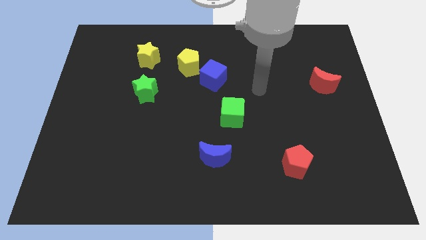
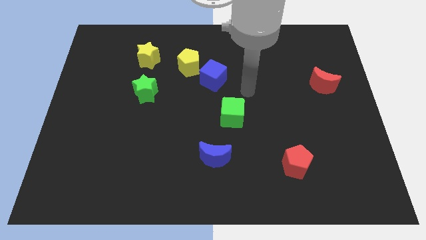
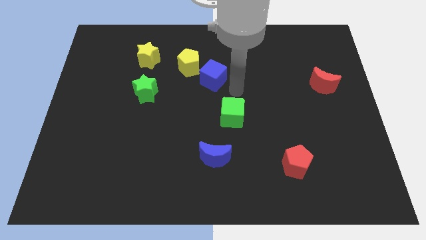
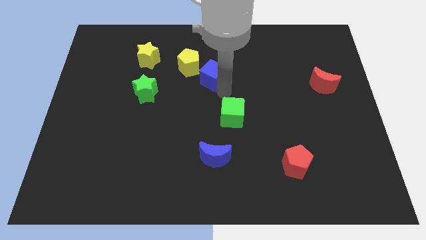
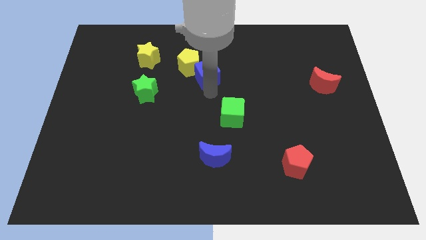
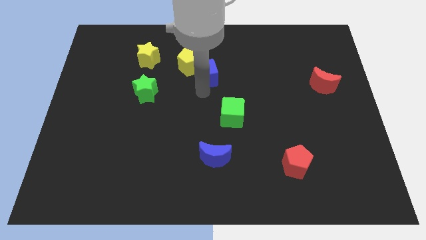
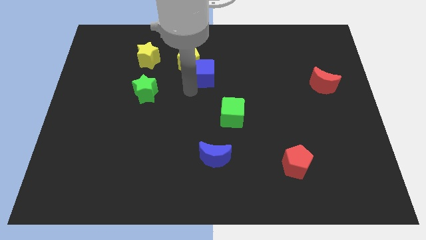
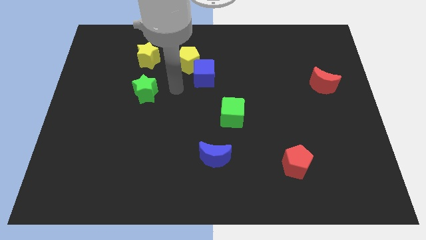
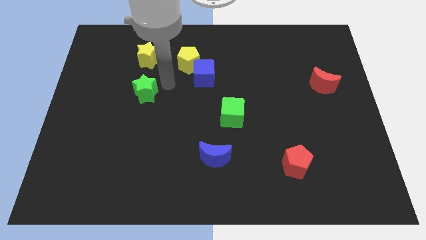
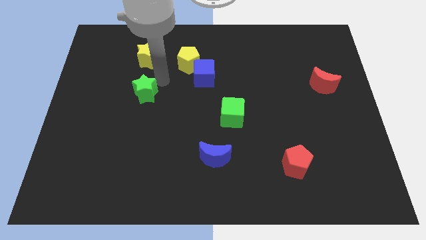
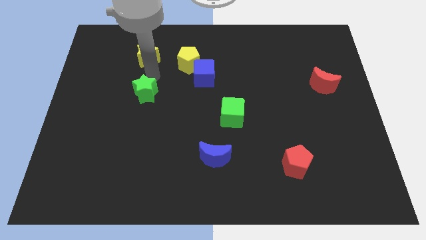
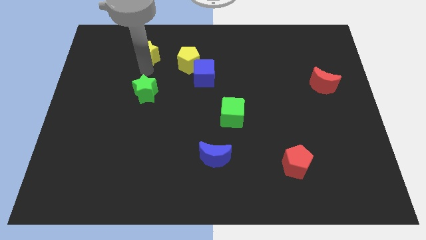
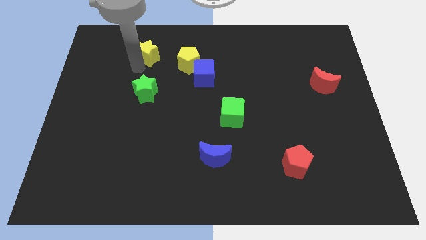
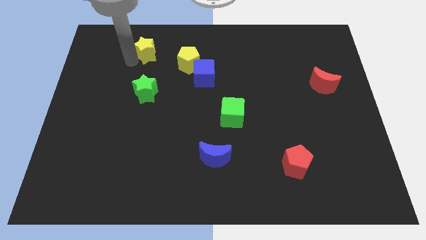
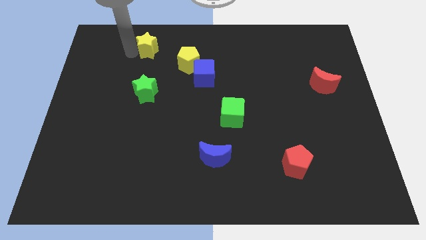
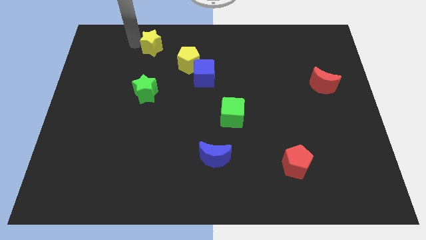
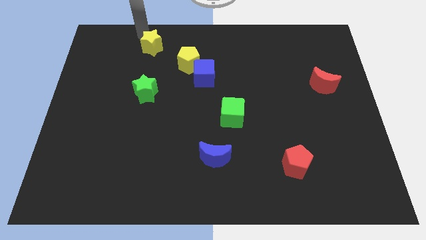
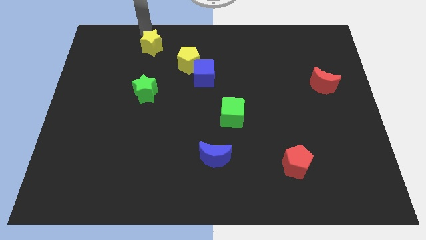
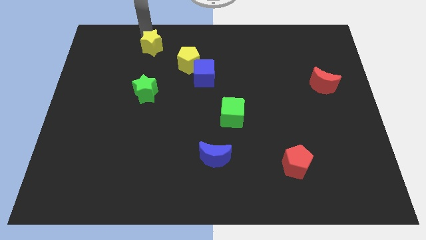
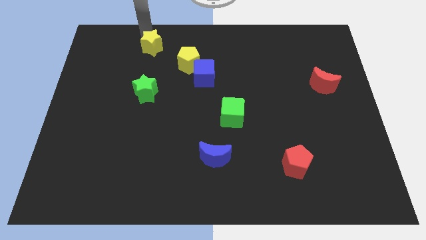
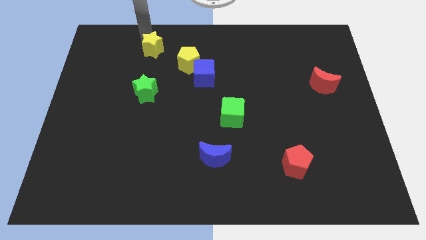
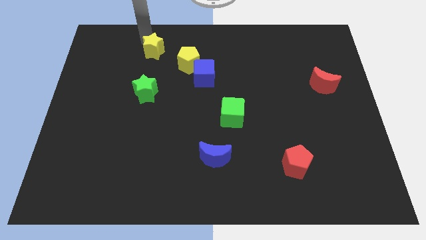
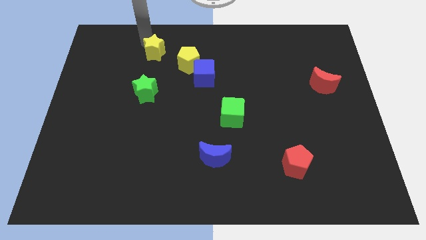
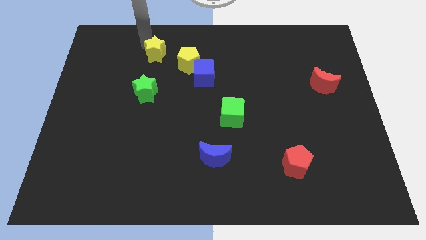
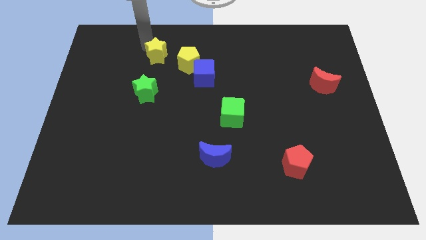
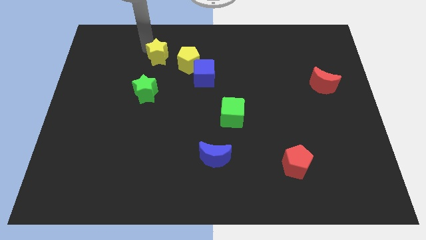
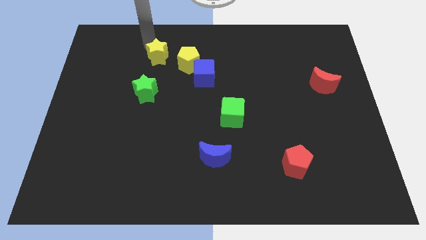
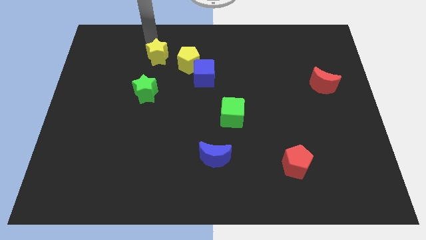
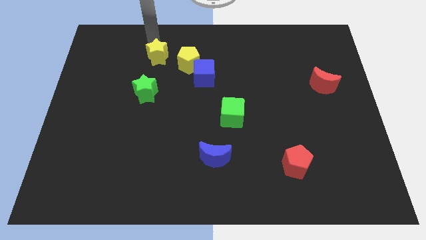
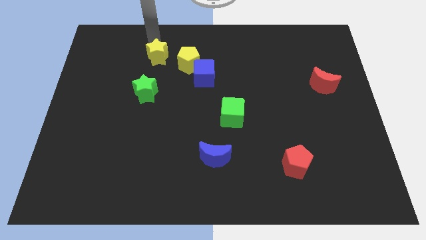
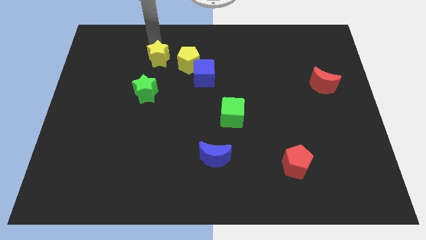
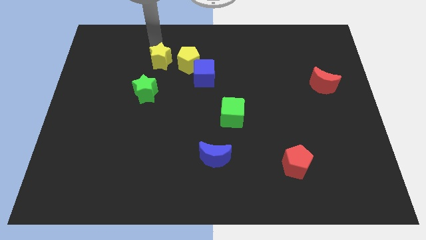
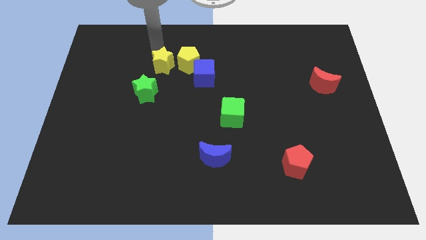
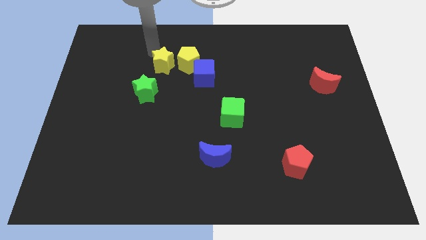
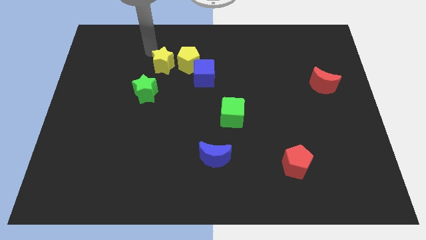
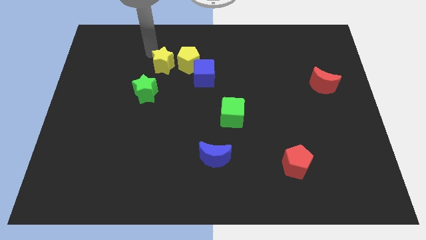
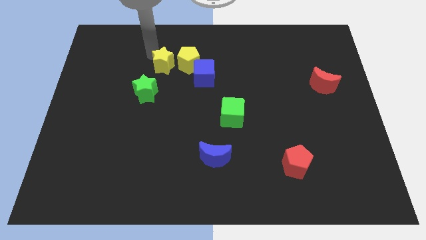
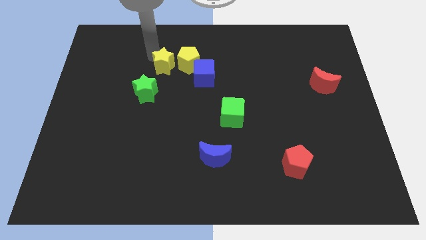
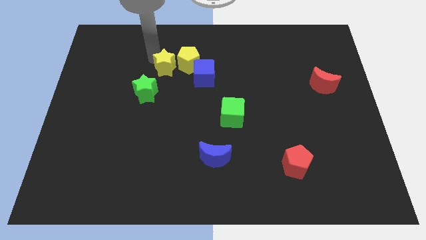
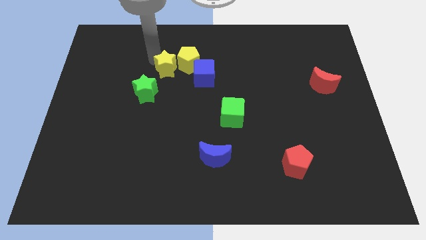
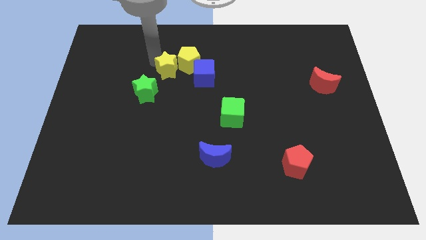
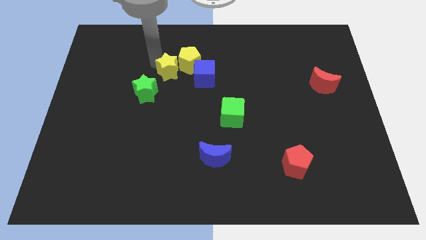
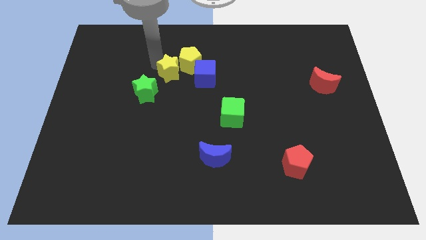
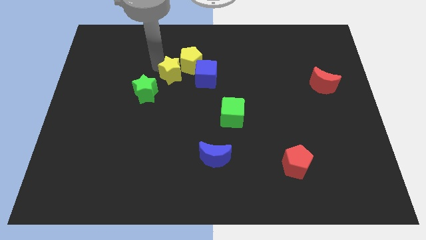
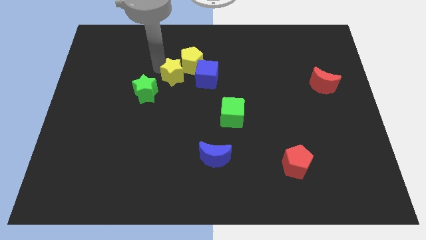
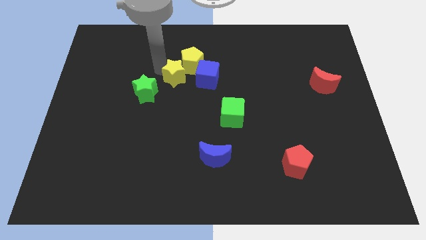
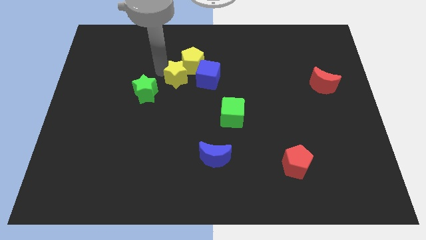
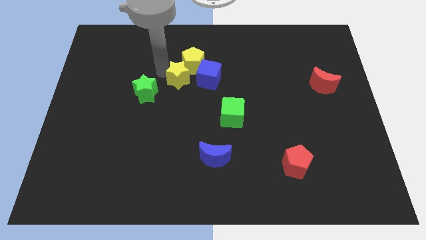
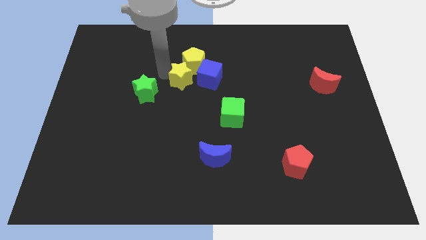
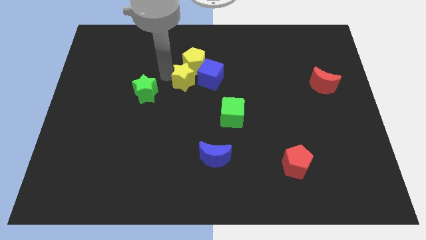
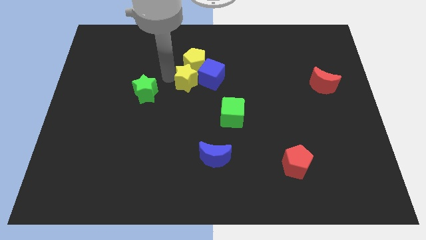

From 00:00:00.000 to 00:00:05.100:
push the yellow star towards the blue cube

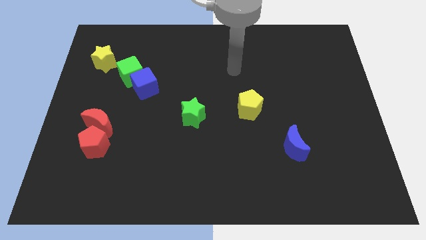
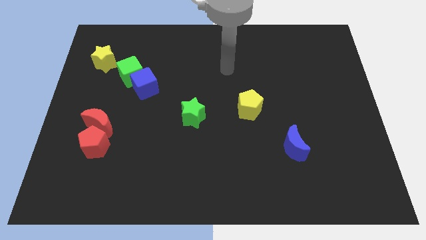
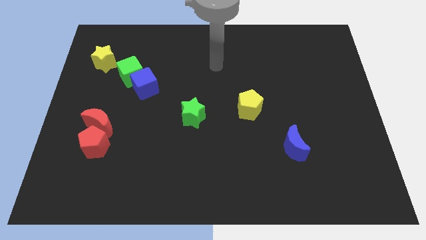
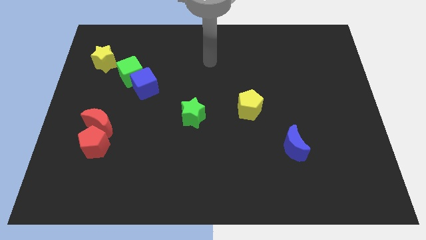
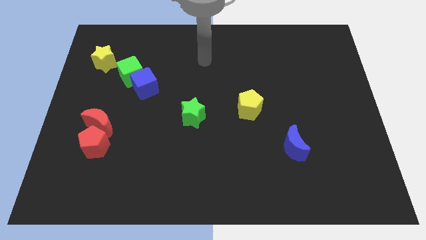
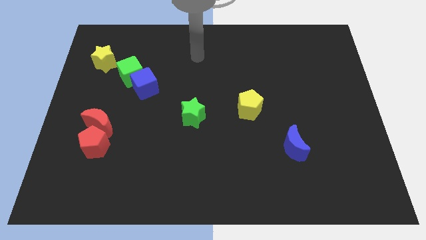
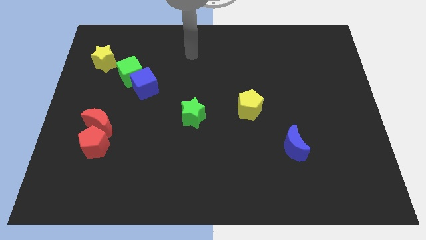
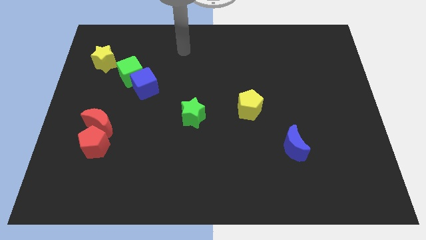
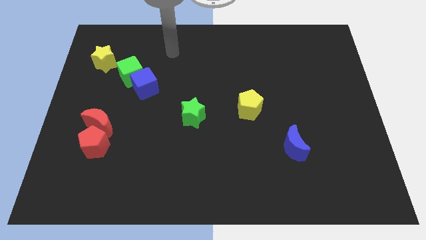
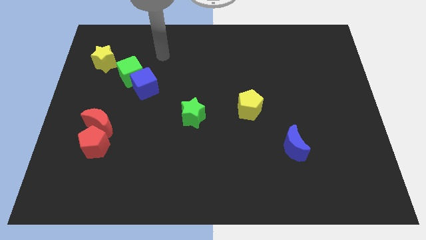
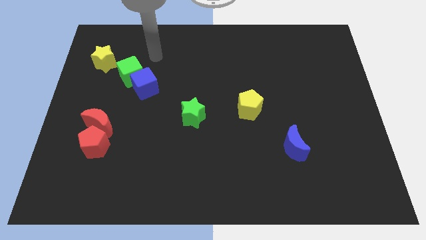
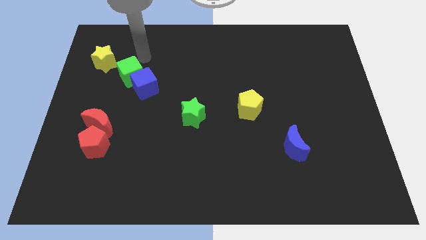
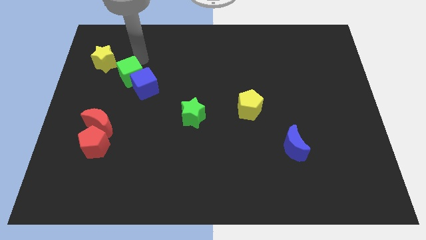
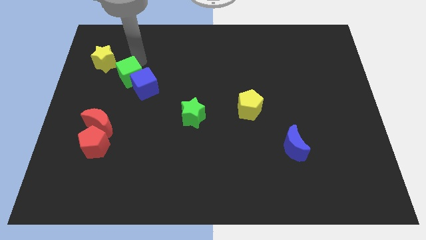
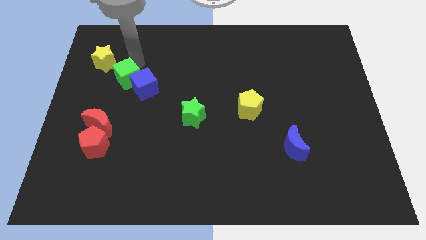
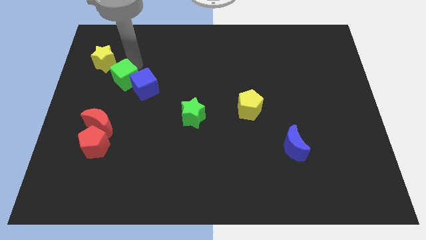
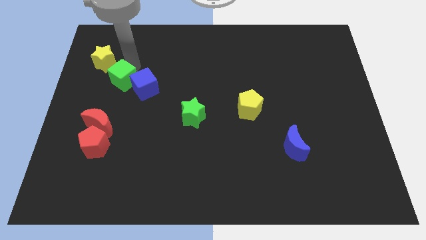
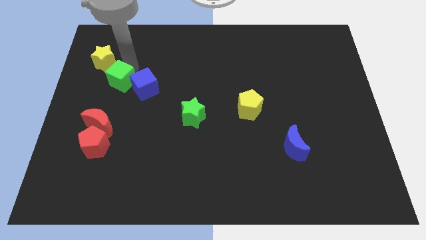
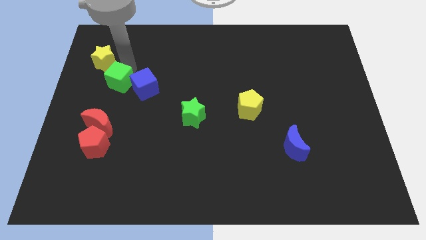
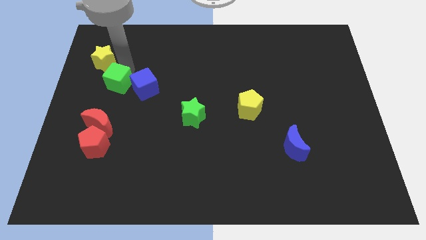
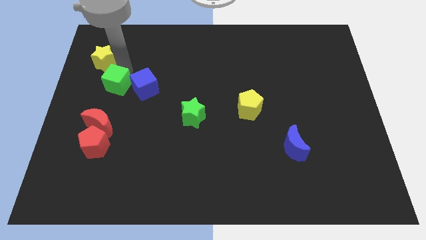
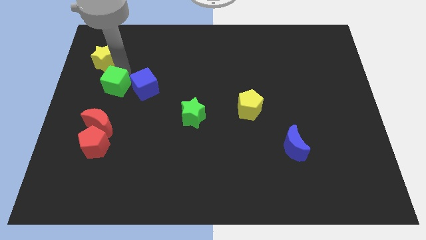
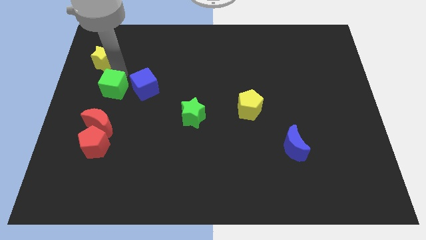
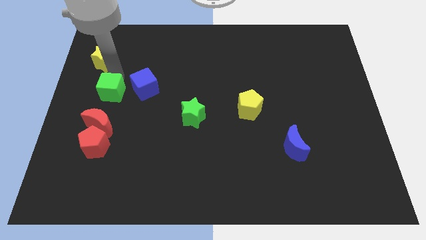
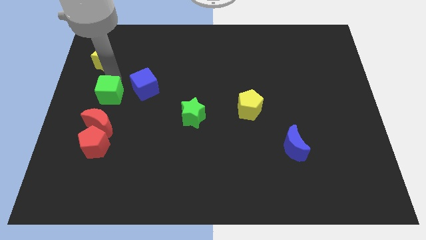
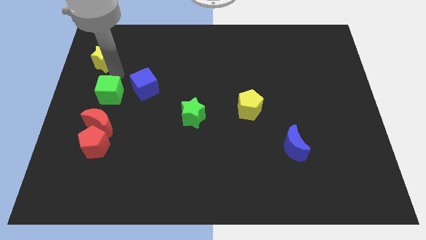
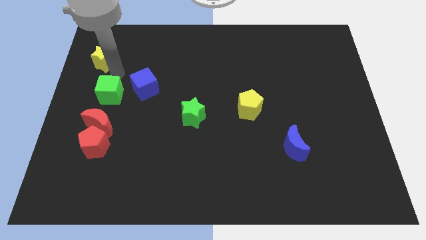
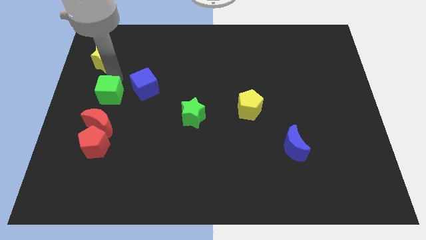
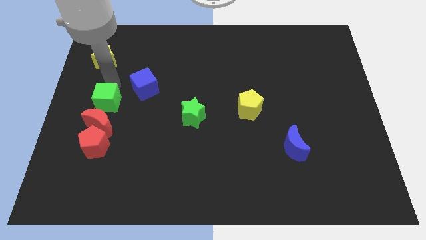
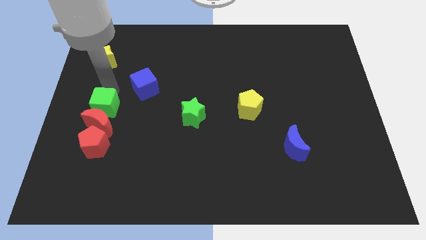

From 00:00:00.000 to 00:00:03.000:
put the green cube close to the red moon
